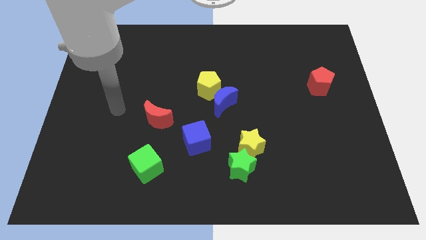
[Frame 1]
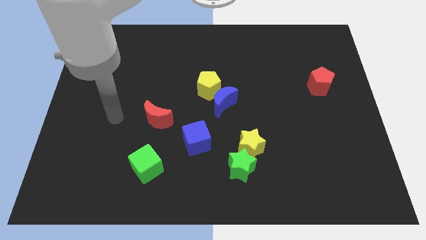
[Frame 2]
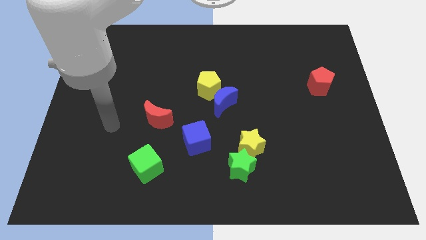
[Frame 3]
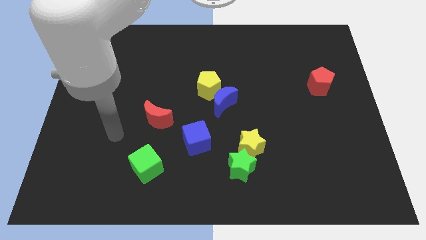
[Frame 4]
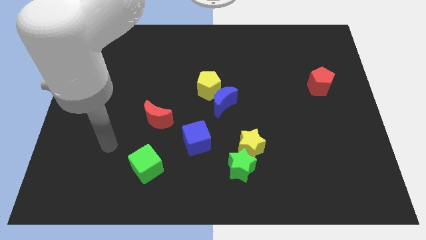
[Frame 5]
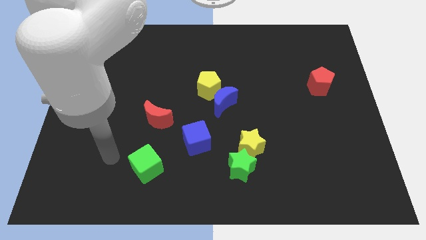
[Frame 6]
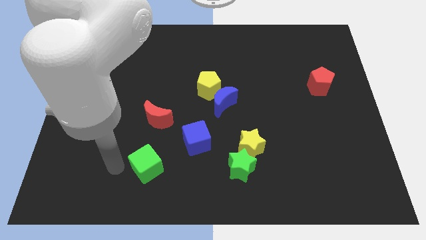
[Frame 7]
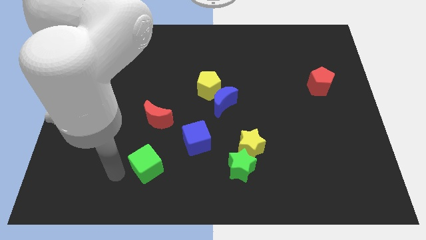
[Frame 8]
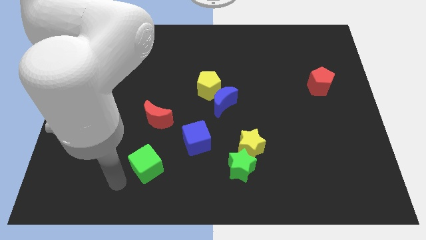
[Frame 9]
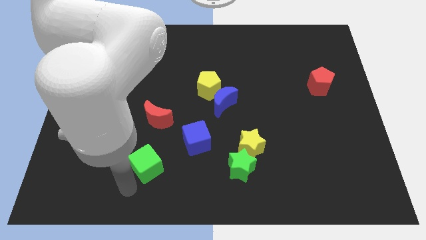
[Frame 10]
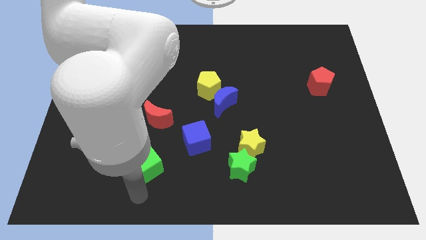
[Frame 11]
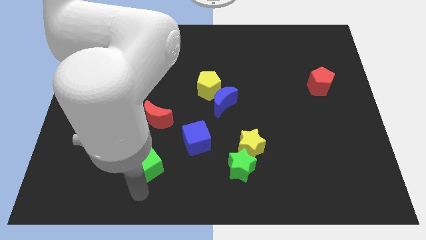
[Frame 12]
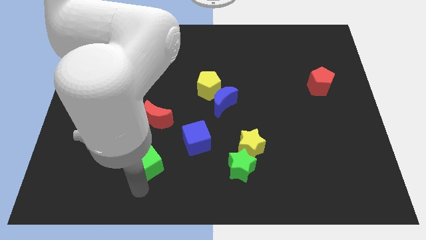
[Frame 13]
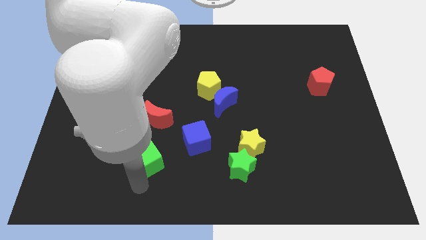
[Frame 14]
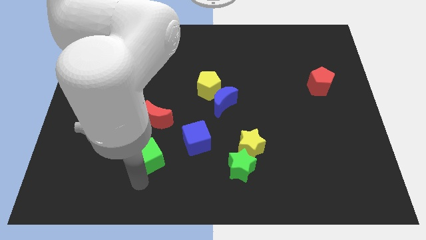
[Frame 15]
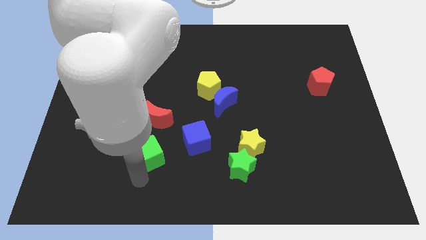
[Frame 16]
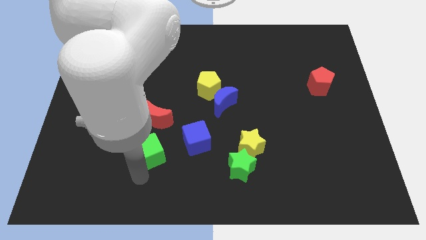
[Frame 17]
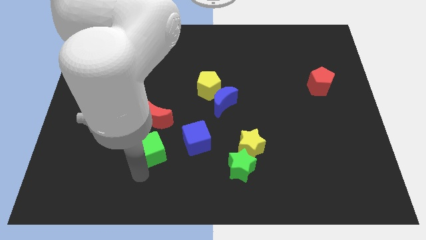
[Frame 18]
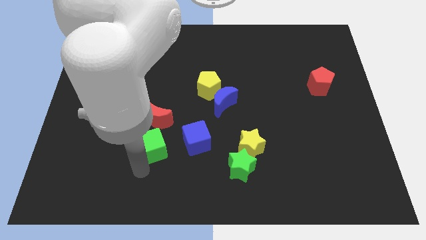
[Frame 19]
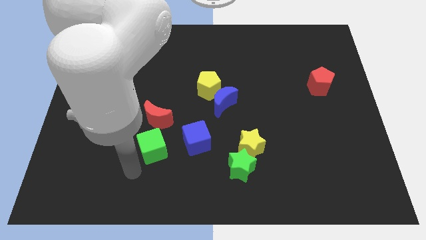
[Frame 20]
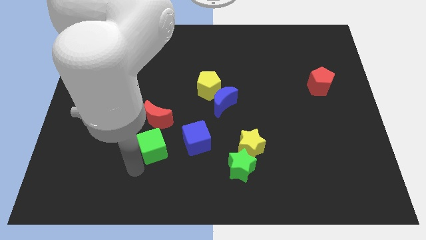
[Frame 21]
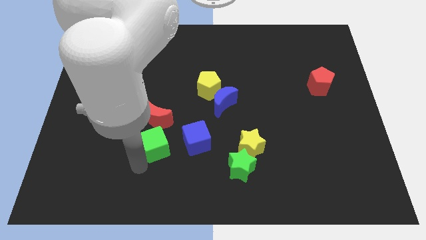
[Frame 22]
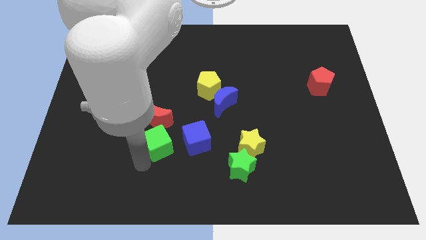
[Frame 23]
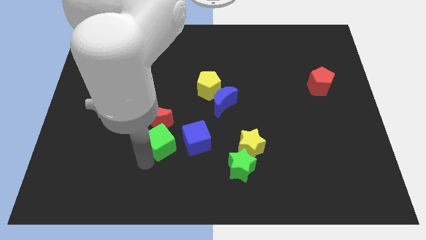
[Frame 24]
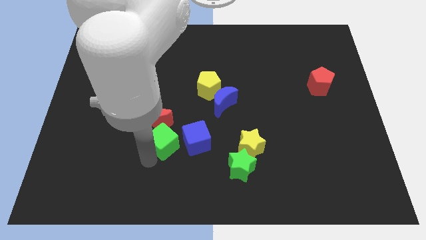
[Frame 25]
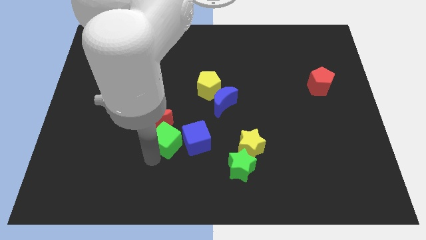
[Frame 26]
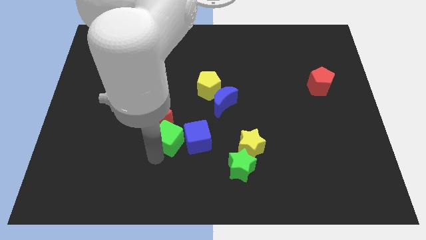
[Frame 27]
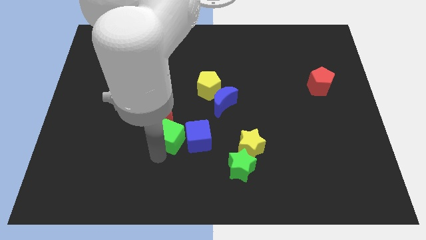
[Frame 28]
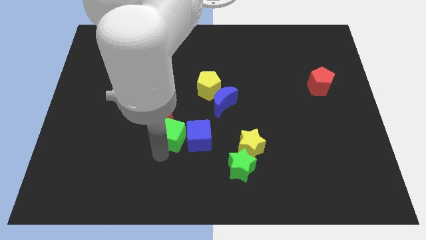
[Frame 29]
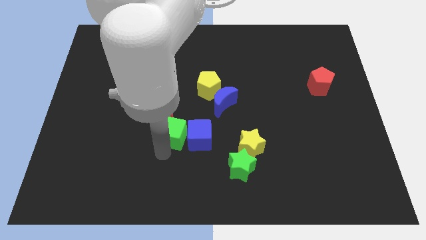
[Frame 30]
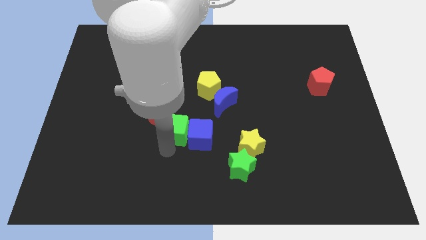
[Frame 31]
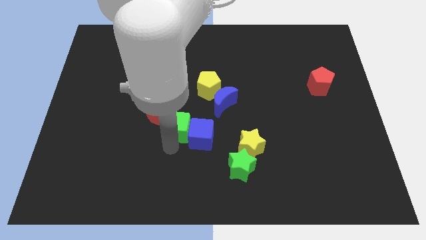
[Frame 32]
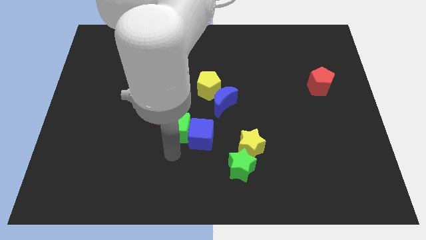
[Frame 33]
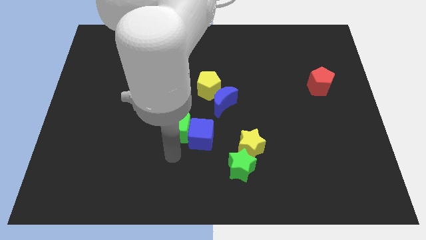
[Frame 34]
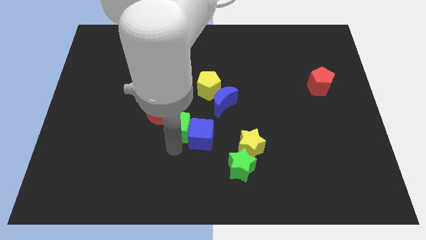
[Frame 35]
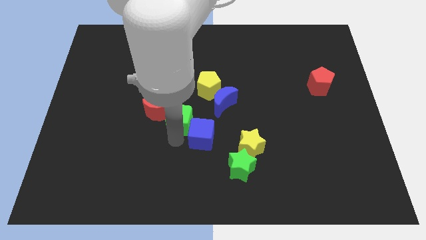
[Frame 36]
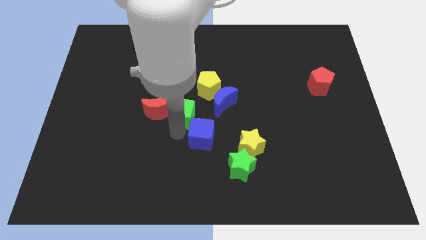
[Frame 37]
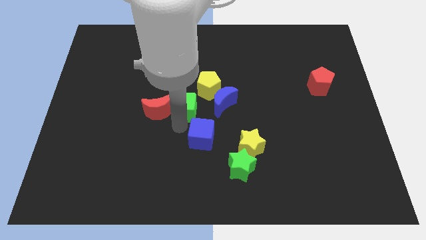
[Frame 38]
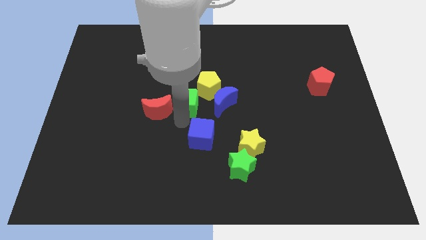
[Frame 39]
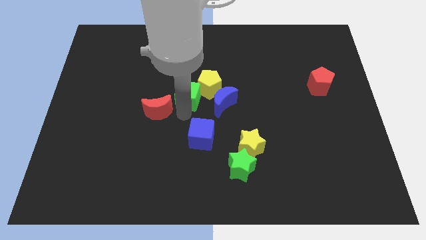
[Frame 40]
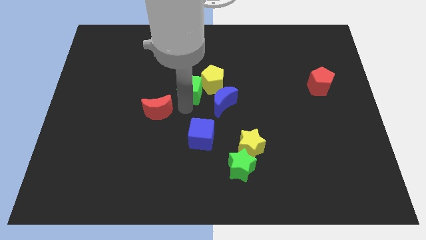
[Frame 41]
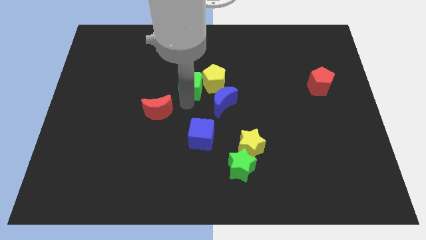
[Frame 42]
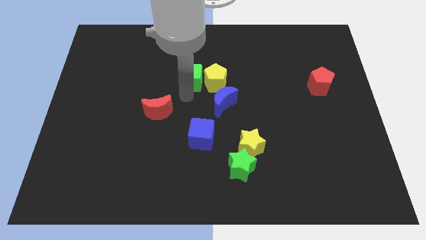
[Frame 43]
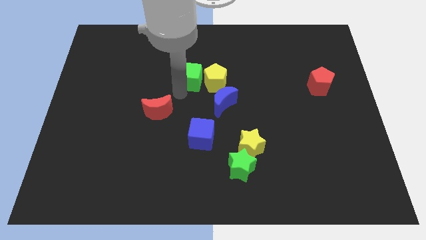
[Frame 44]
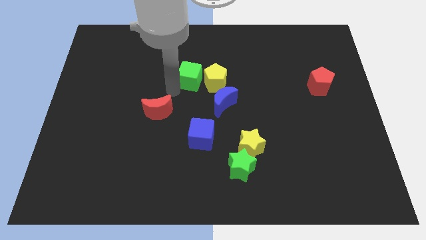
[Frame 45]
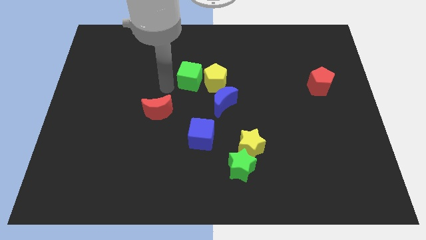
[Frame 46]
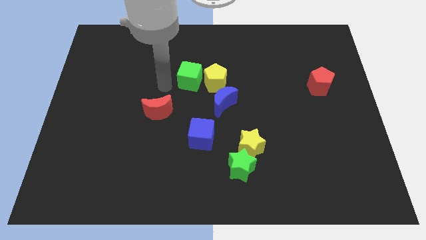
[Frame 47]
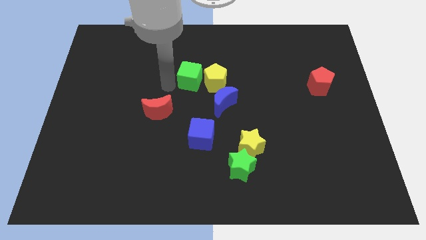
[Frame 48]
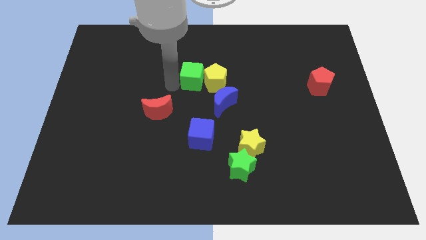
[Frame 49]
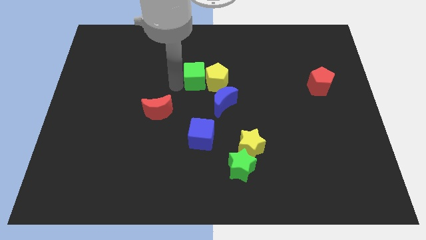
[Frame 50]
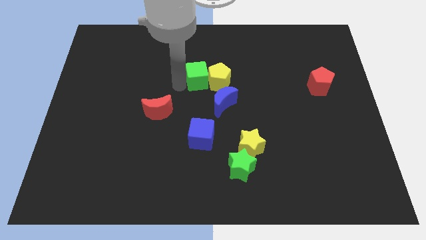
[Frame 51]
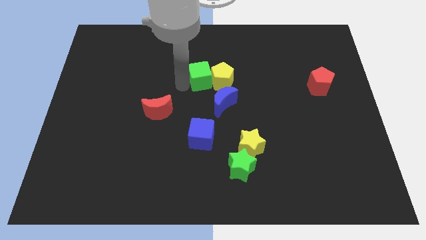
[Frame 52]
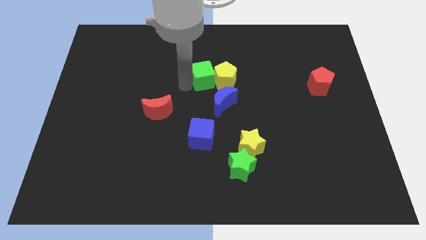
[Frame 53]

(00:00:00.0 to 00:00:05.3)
put the green cube to the top side of the blue moon

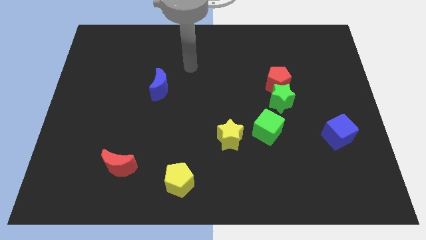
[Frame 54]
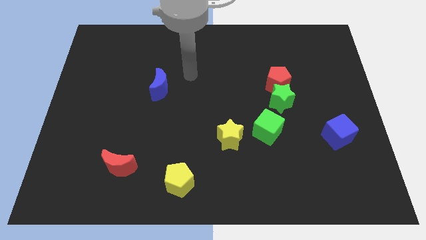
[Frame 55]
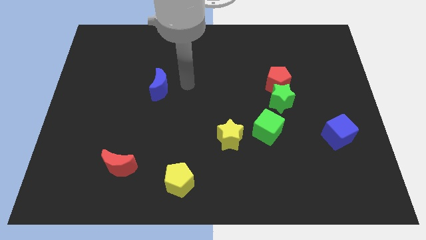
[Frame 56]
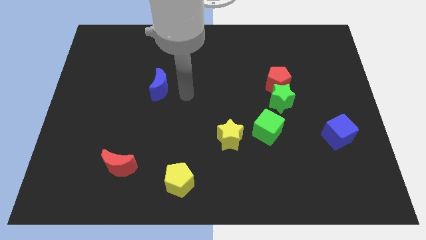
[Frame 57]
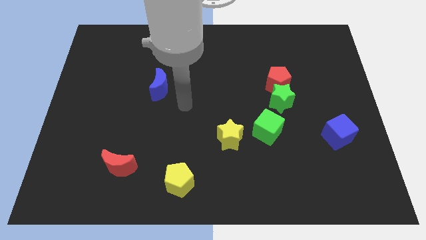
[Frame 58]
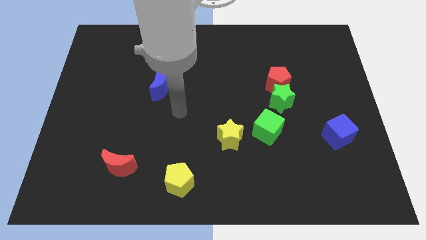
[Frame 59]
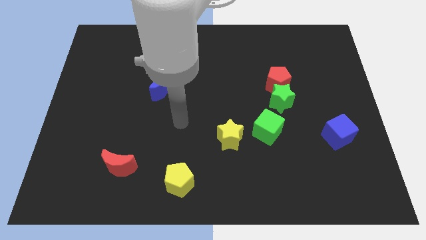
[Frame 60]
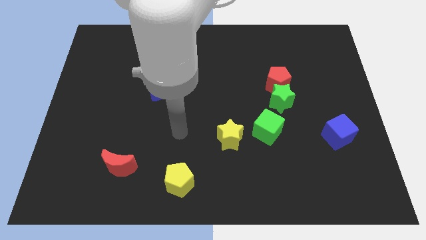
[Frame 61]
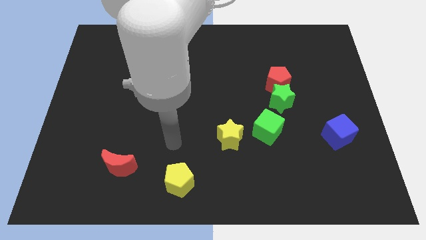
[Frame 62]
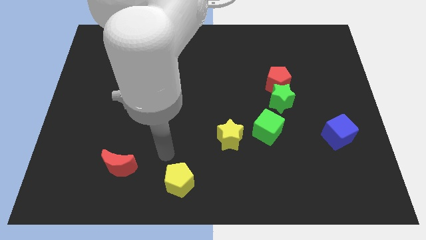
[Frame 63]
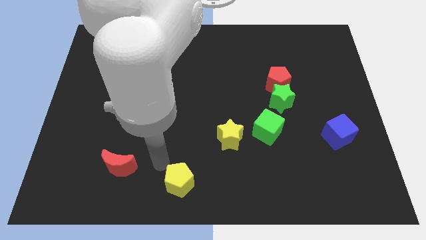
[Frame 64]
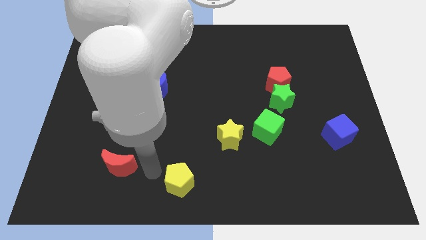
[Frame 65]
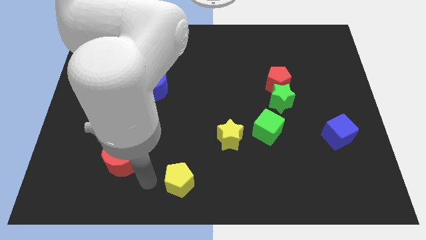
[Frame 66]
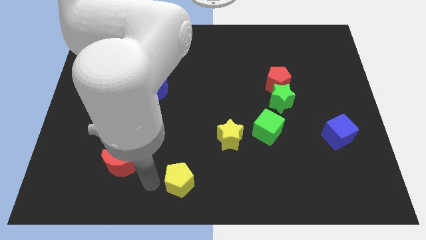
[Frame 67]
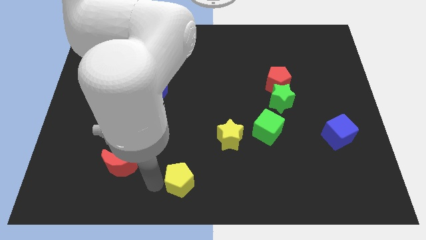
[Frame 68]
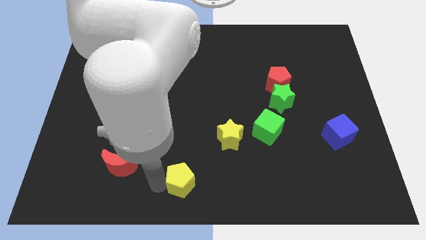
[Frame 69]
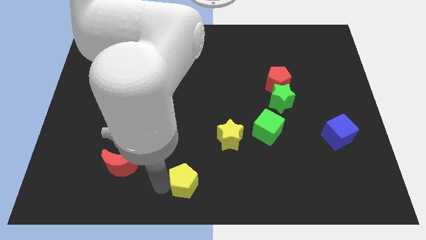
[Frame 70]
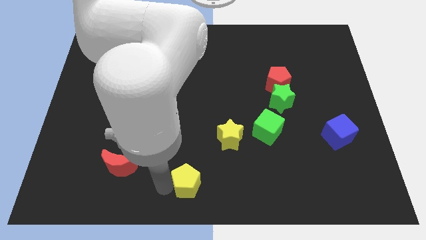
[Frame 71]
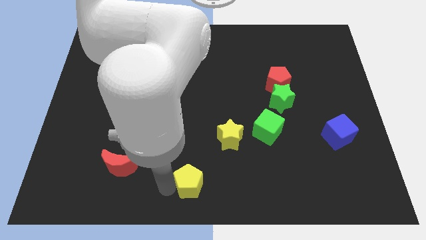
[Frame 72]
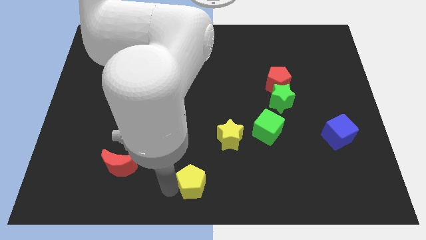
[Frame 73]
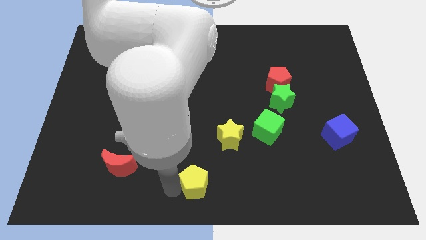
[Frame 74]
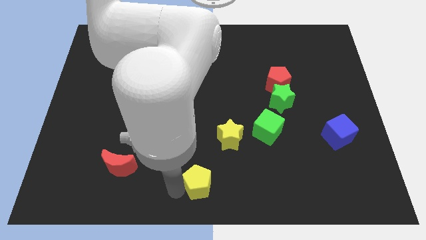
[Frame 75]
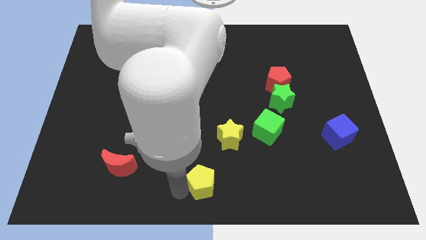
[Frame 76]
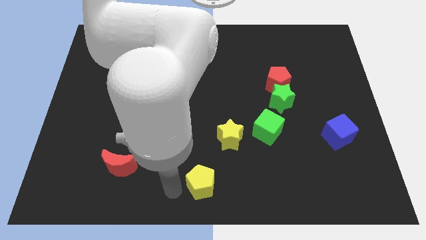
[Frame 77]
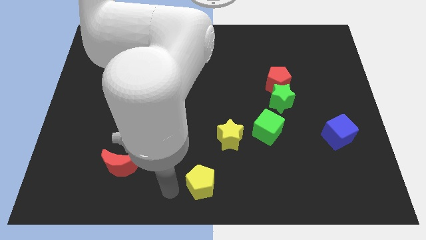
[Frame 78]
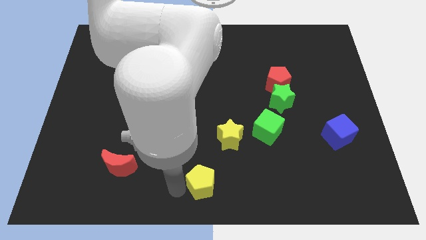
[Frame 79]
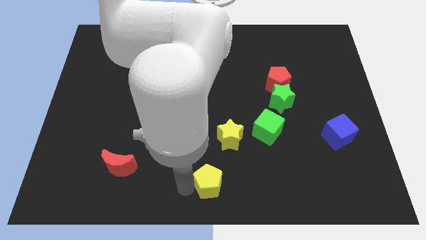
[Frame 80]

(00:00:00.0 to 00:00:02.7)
move the yellow pentagon below the yellow star
